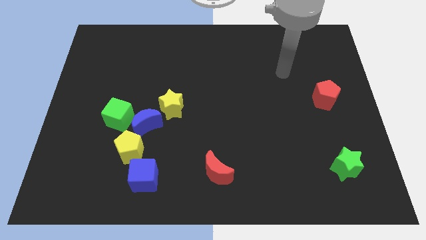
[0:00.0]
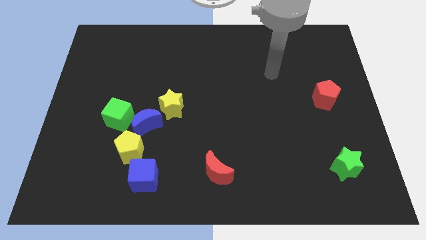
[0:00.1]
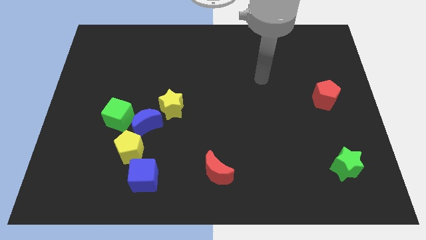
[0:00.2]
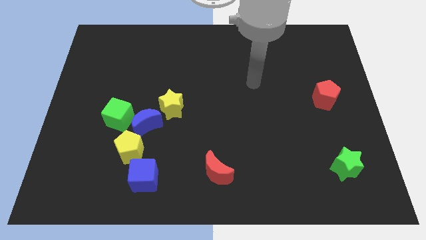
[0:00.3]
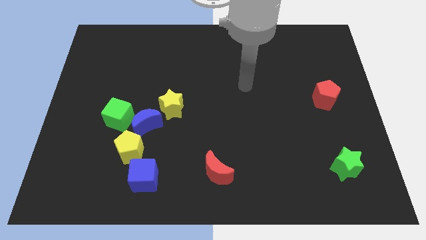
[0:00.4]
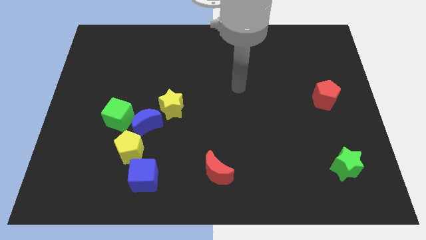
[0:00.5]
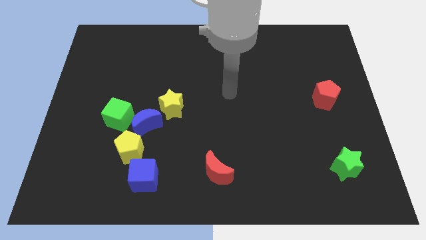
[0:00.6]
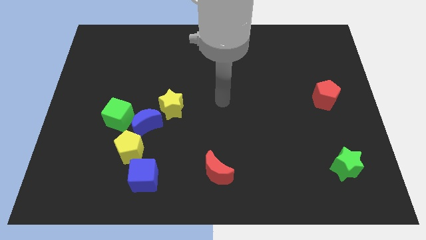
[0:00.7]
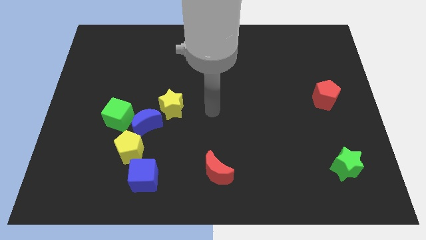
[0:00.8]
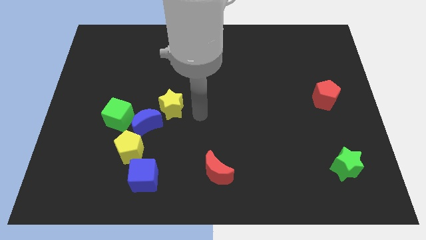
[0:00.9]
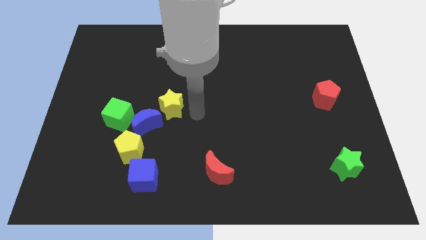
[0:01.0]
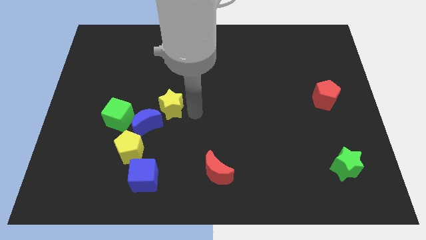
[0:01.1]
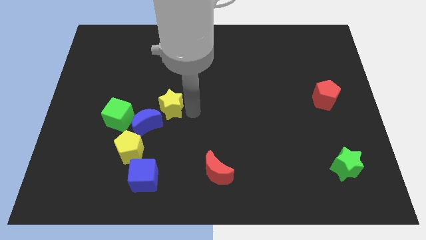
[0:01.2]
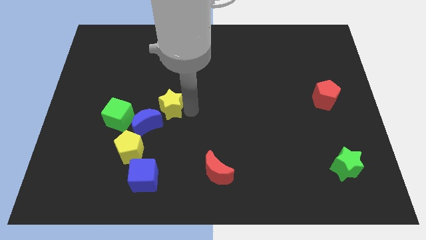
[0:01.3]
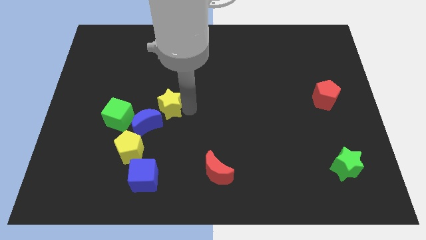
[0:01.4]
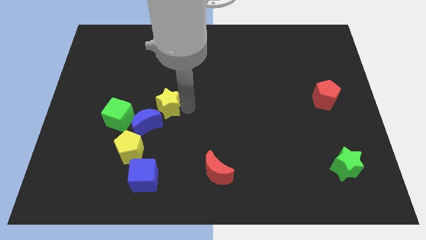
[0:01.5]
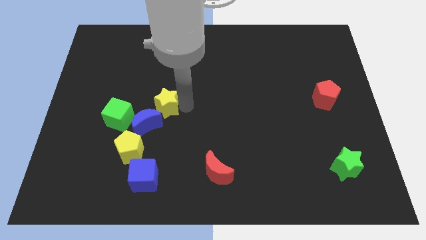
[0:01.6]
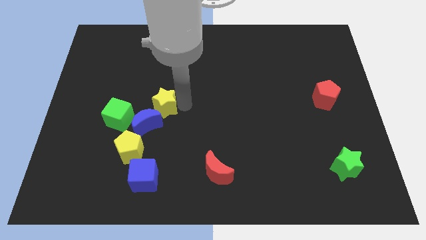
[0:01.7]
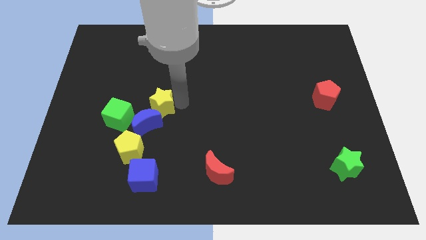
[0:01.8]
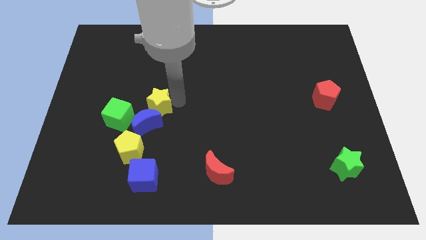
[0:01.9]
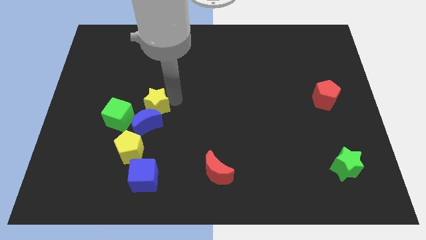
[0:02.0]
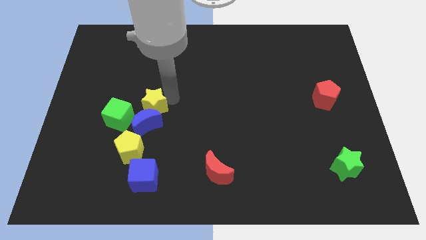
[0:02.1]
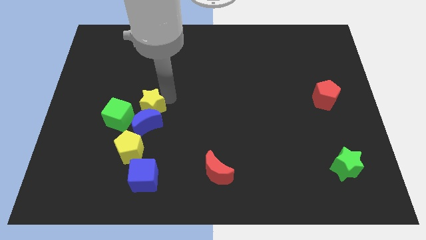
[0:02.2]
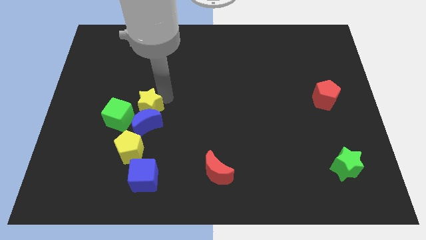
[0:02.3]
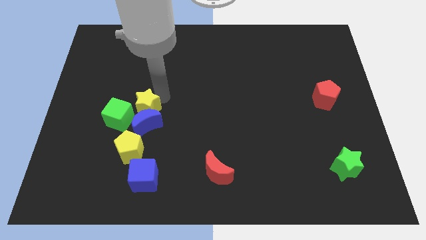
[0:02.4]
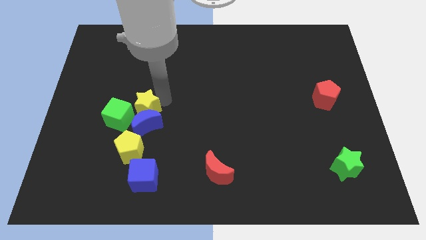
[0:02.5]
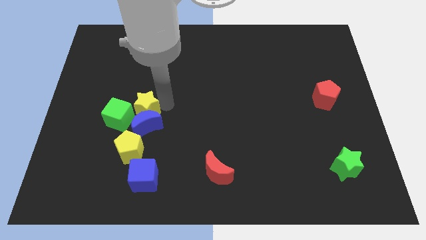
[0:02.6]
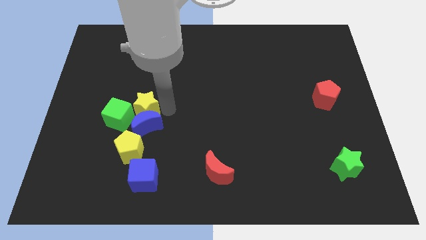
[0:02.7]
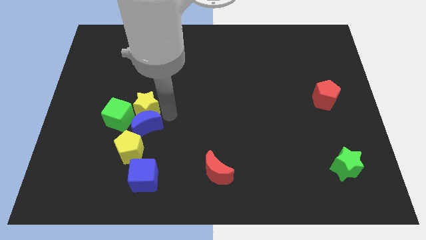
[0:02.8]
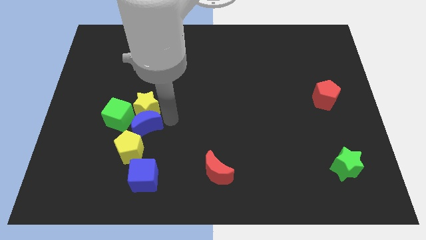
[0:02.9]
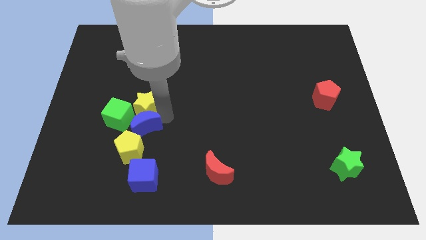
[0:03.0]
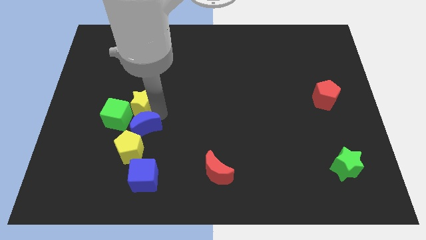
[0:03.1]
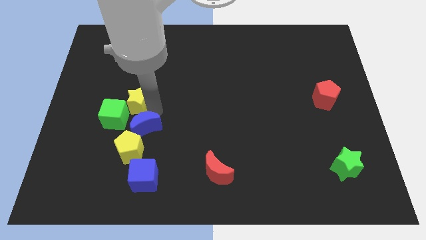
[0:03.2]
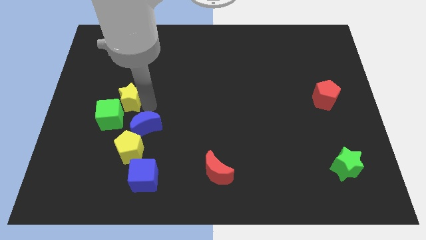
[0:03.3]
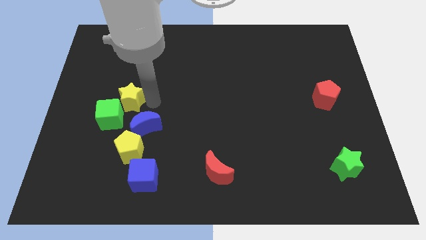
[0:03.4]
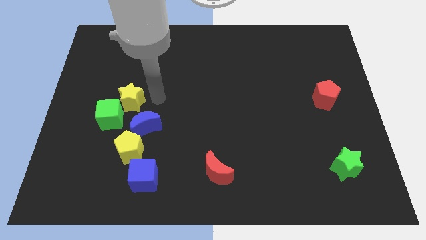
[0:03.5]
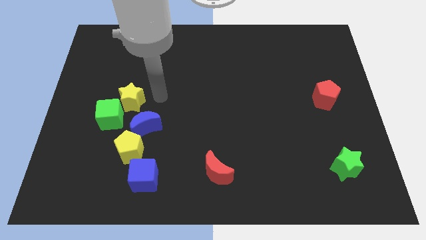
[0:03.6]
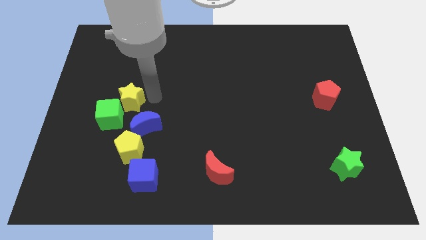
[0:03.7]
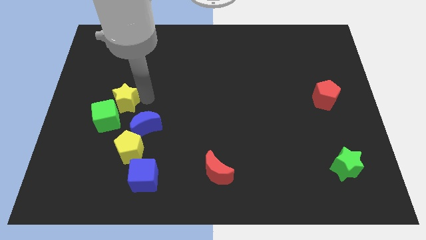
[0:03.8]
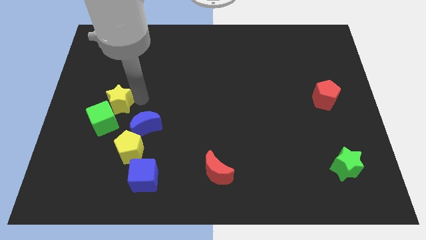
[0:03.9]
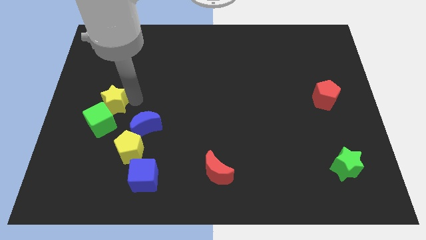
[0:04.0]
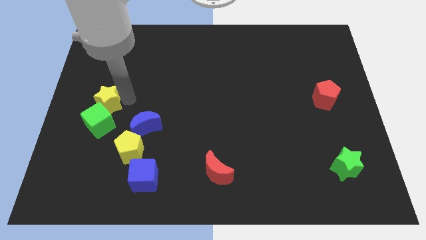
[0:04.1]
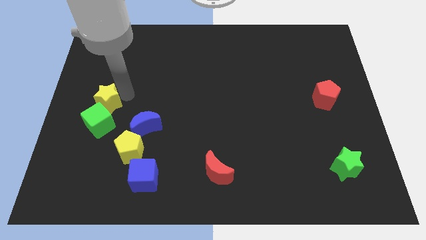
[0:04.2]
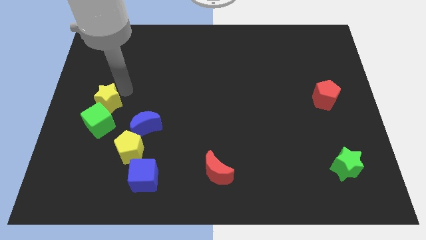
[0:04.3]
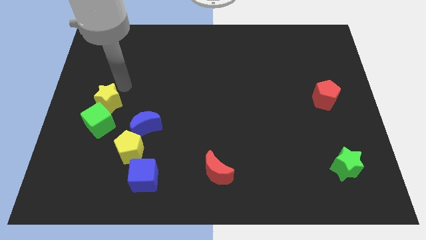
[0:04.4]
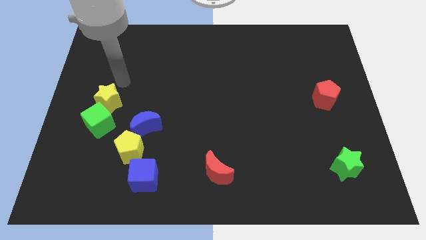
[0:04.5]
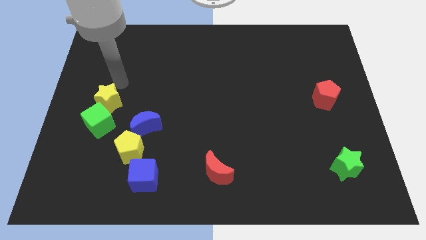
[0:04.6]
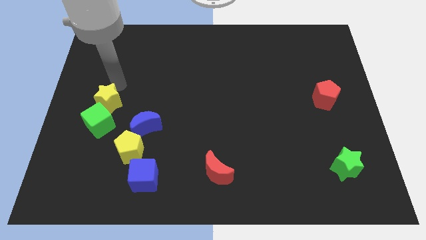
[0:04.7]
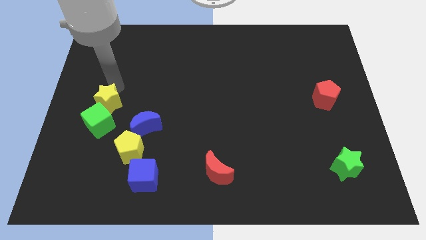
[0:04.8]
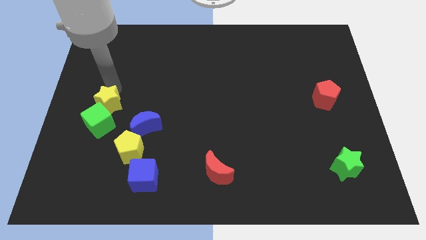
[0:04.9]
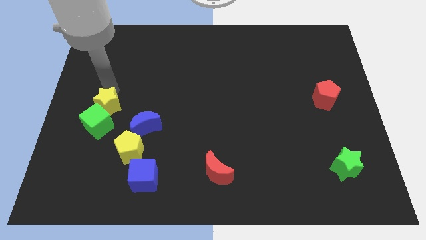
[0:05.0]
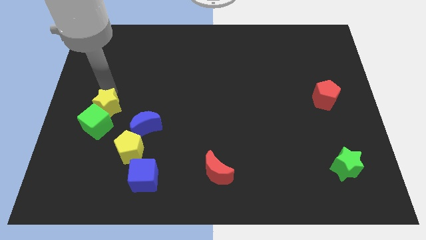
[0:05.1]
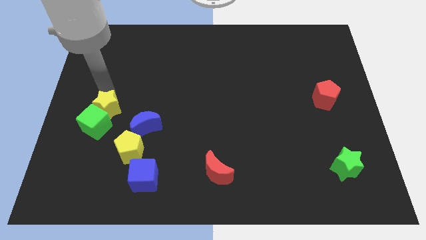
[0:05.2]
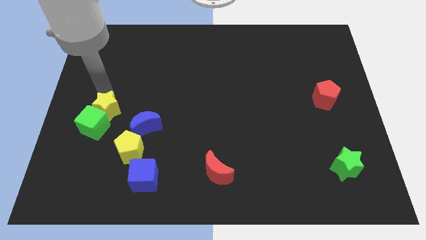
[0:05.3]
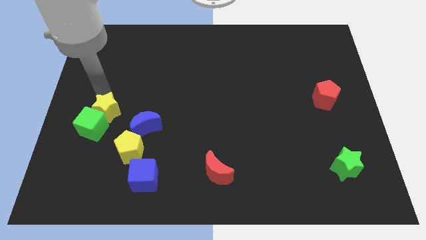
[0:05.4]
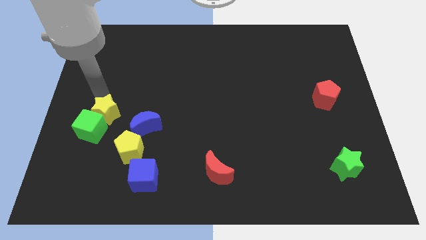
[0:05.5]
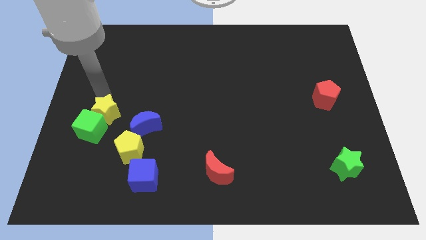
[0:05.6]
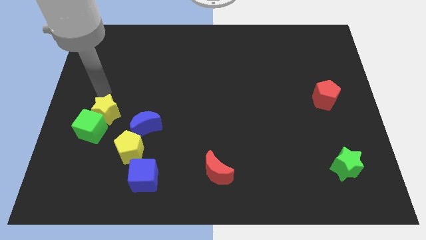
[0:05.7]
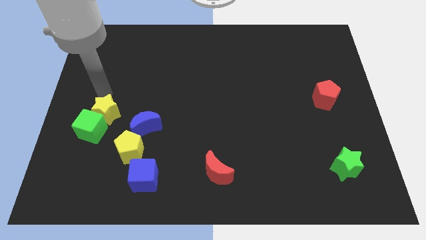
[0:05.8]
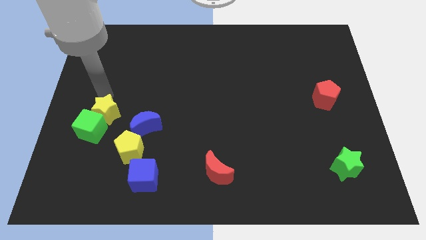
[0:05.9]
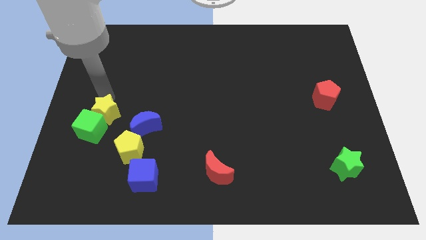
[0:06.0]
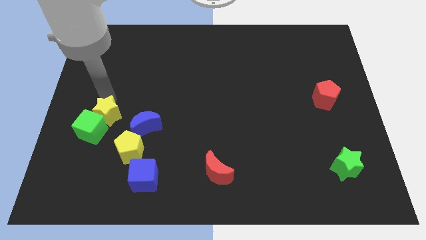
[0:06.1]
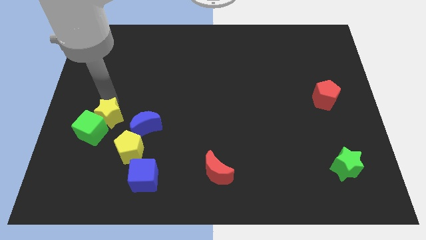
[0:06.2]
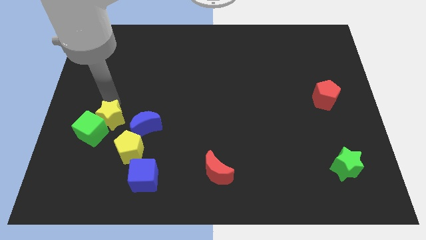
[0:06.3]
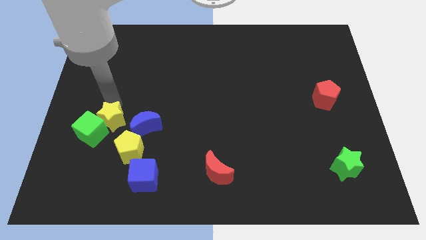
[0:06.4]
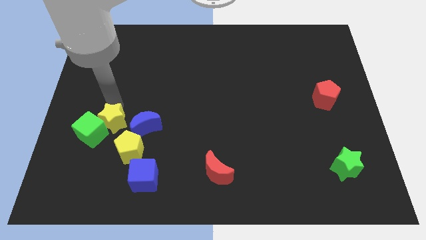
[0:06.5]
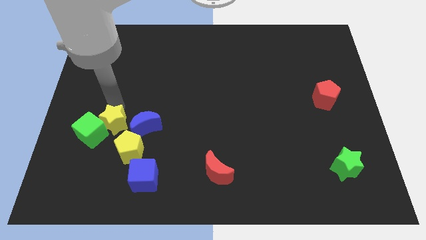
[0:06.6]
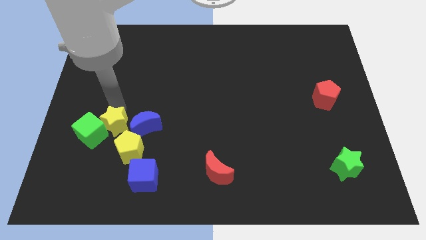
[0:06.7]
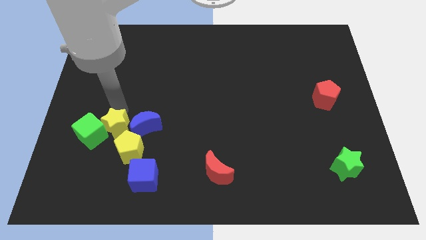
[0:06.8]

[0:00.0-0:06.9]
push the yellow star to the bottom left of the blue moon

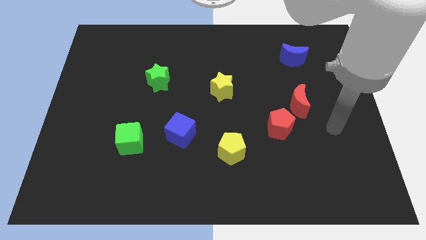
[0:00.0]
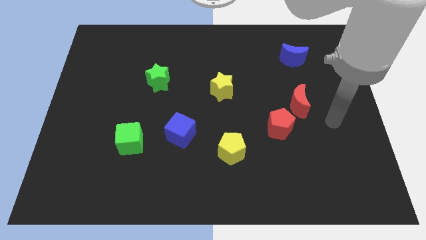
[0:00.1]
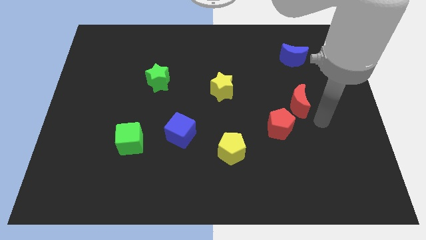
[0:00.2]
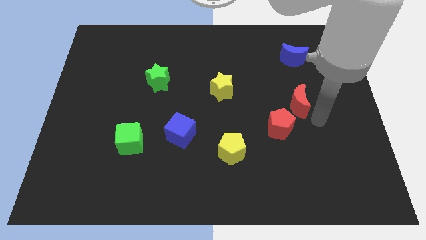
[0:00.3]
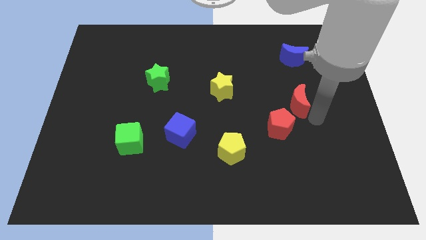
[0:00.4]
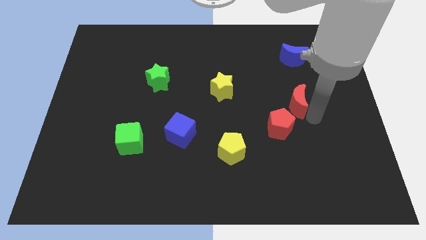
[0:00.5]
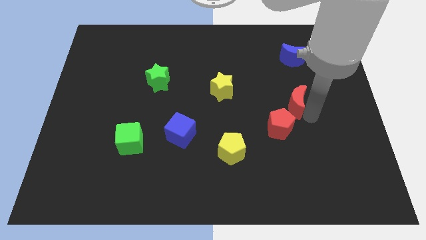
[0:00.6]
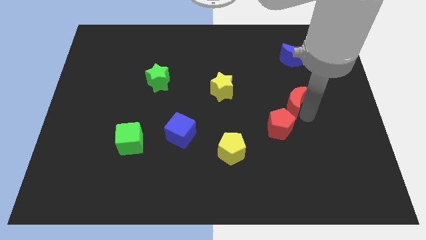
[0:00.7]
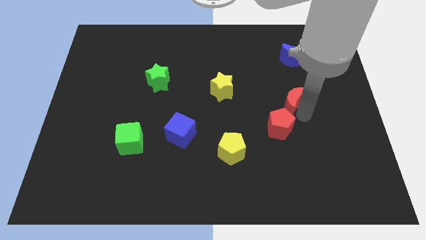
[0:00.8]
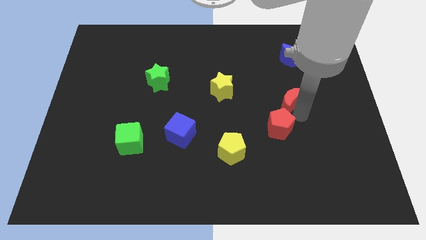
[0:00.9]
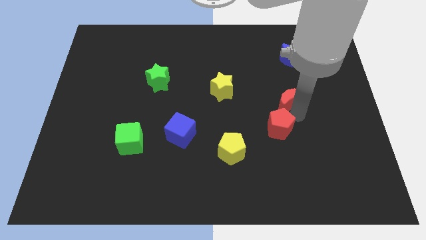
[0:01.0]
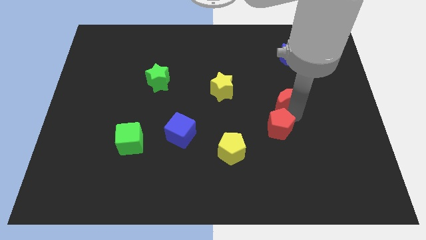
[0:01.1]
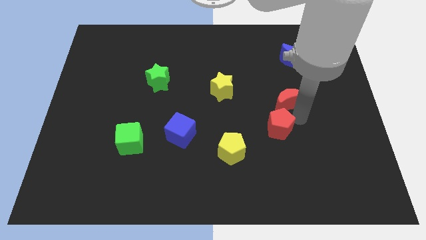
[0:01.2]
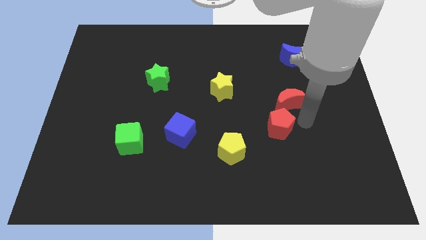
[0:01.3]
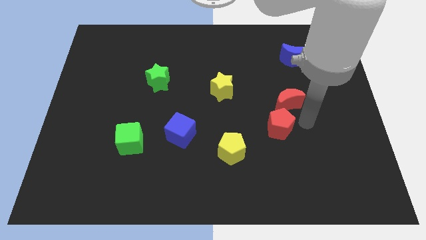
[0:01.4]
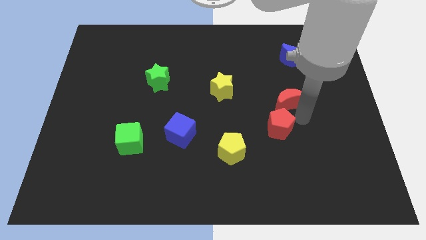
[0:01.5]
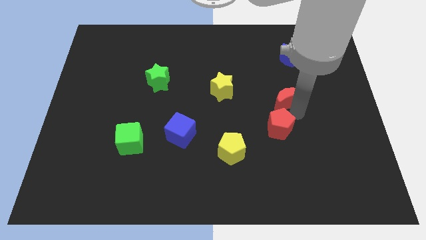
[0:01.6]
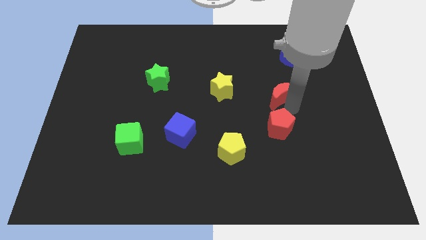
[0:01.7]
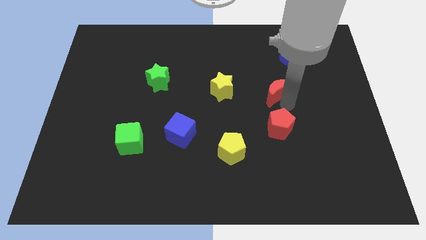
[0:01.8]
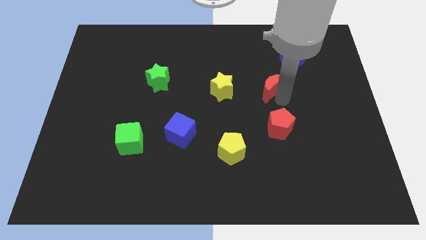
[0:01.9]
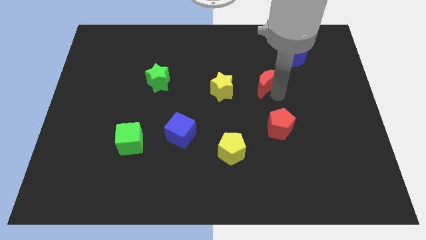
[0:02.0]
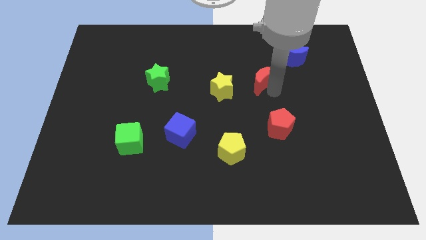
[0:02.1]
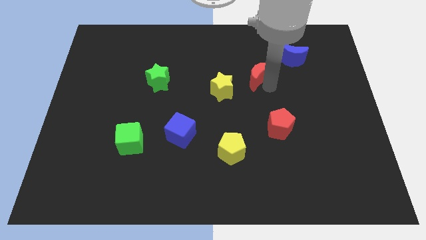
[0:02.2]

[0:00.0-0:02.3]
move the red moon diagonally up and to the right of the yellow star
